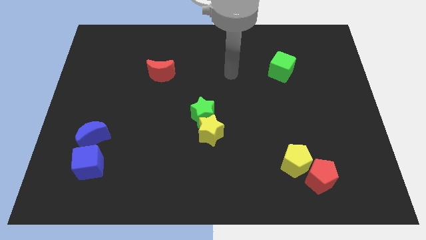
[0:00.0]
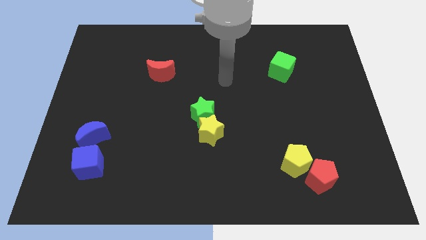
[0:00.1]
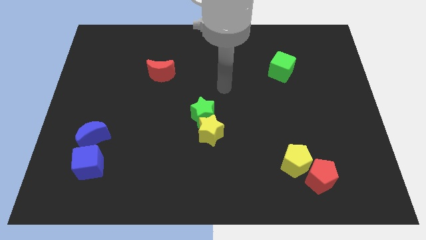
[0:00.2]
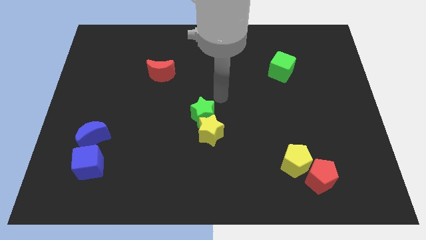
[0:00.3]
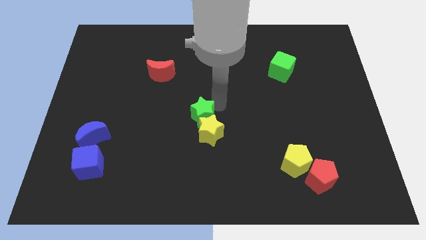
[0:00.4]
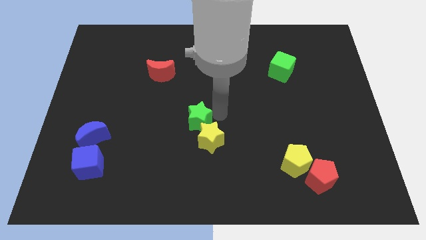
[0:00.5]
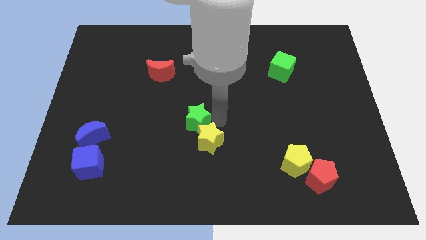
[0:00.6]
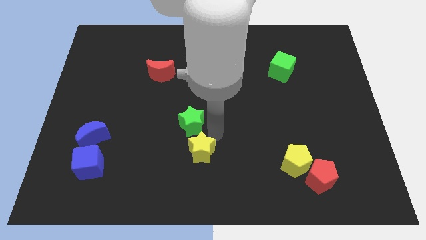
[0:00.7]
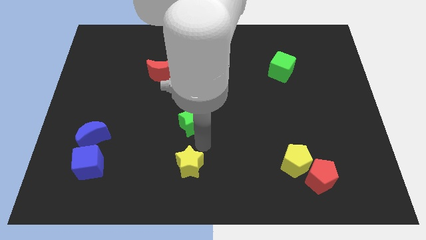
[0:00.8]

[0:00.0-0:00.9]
separate the green star from the yellow star

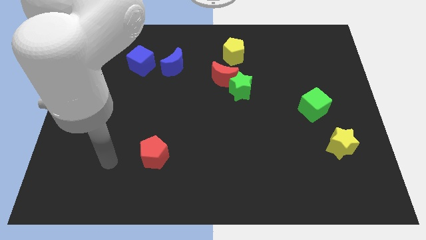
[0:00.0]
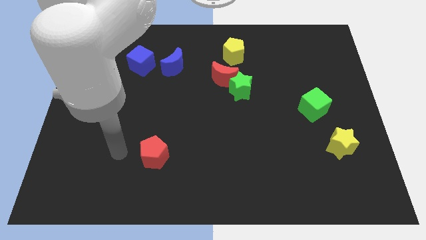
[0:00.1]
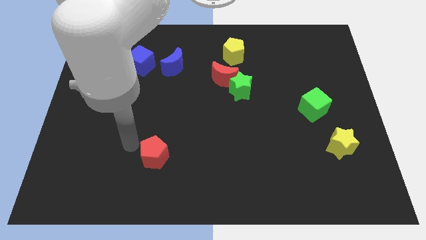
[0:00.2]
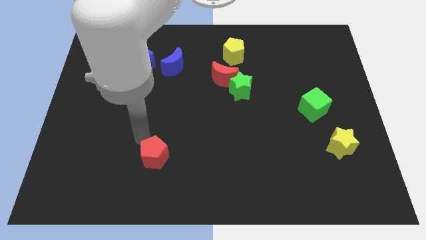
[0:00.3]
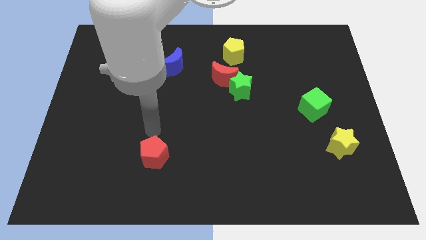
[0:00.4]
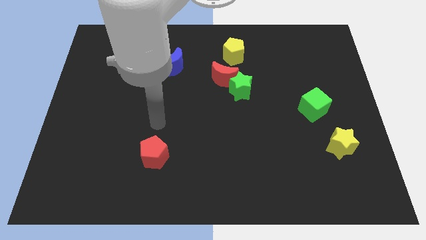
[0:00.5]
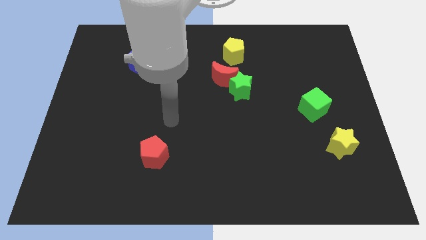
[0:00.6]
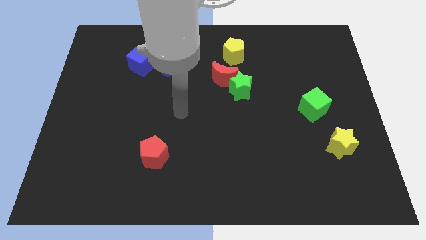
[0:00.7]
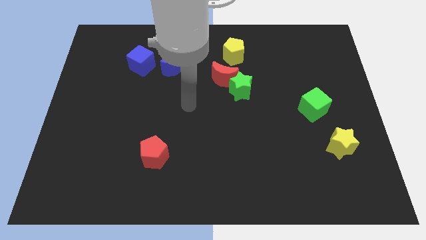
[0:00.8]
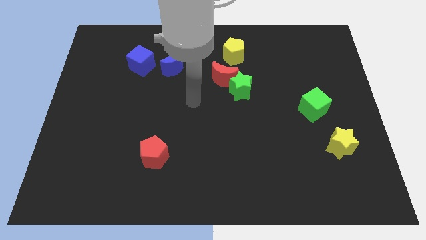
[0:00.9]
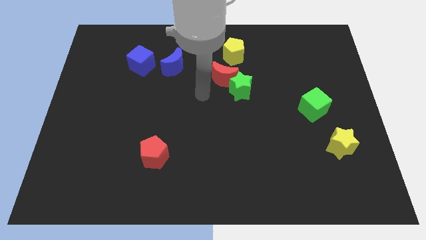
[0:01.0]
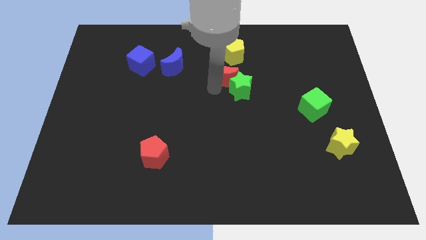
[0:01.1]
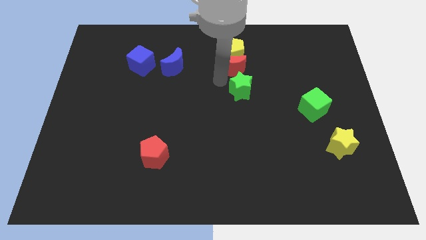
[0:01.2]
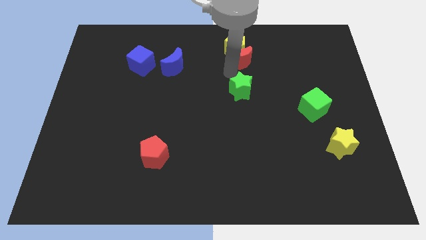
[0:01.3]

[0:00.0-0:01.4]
move the green star away from the red moon

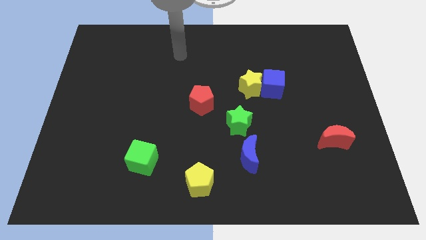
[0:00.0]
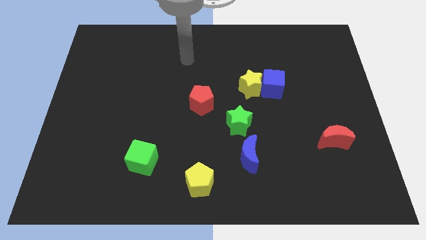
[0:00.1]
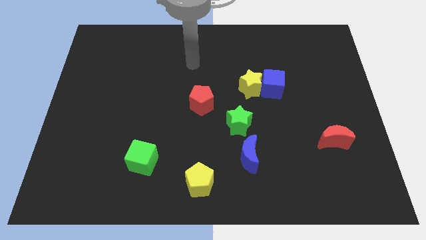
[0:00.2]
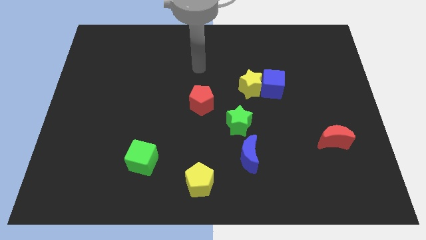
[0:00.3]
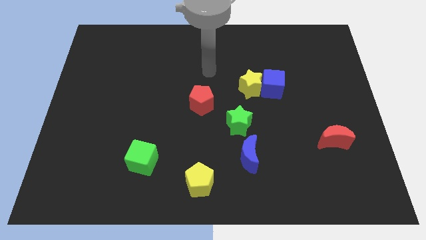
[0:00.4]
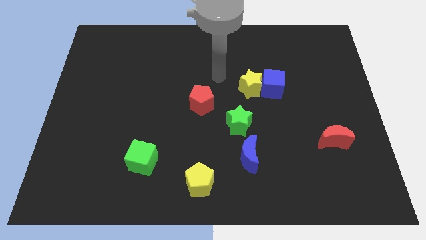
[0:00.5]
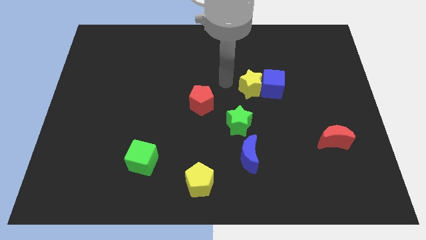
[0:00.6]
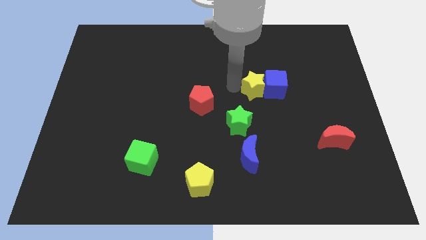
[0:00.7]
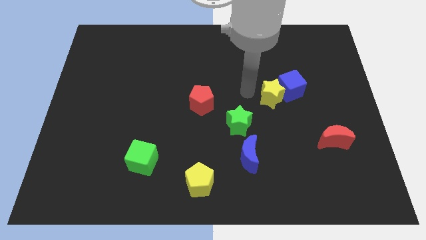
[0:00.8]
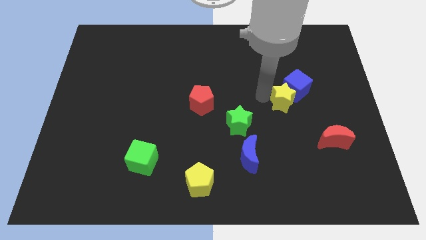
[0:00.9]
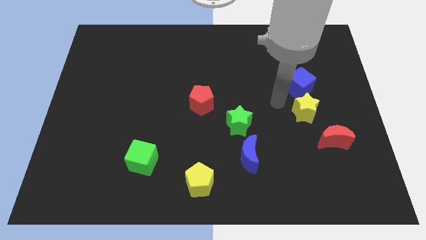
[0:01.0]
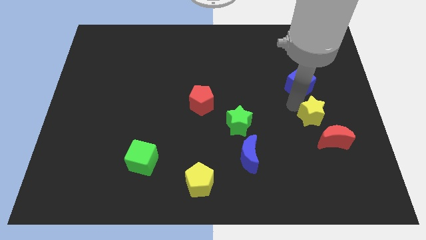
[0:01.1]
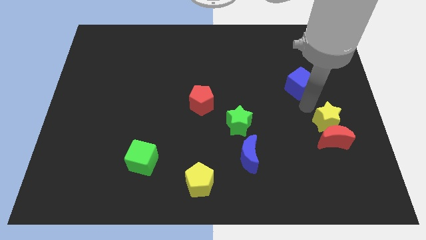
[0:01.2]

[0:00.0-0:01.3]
pull the blue cube apart from the yellow star

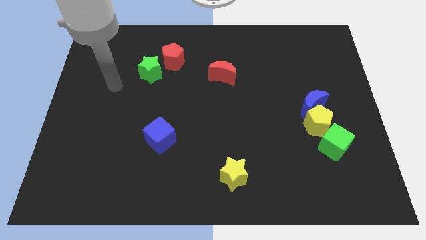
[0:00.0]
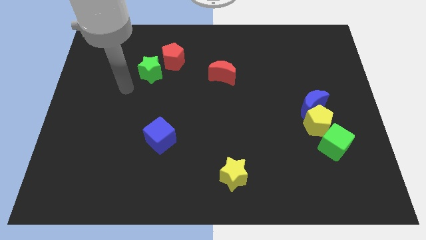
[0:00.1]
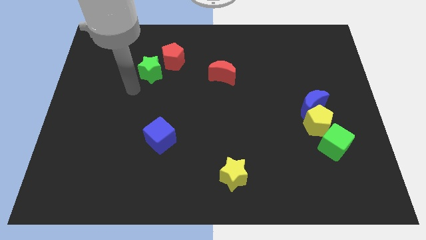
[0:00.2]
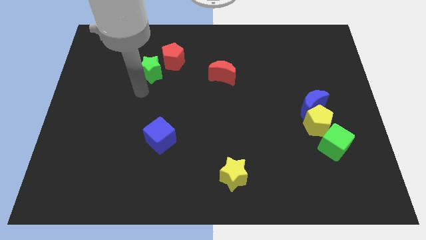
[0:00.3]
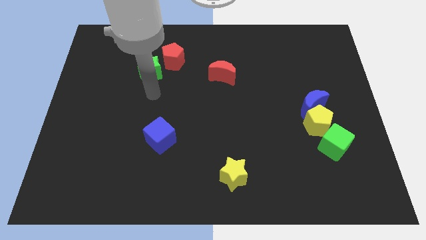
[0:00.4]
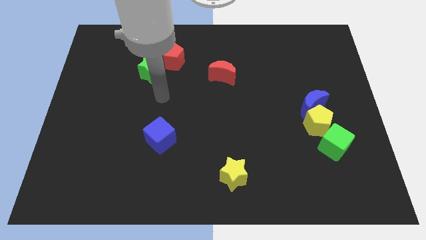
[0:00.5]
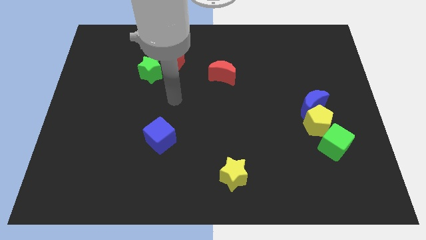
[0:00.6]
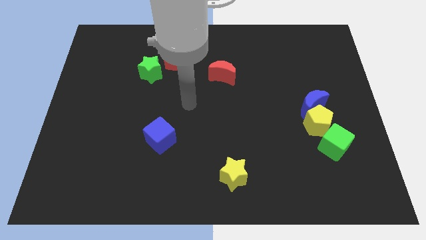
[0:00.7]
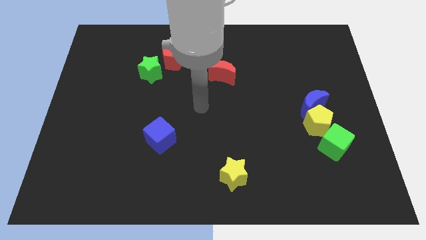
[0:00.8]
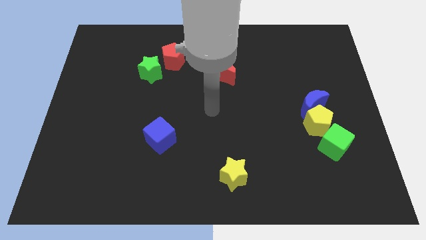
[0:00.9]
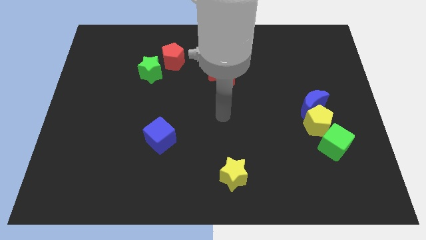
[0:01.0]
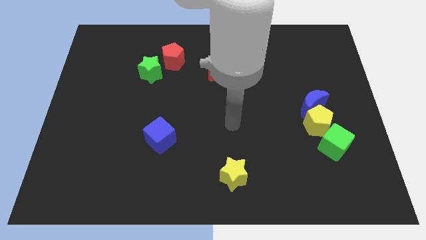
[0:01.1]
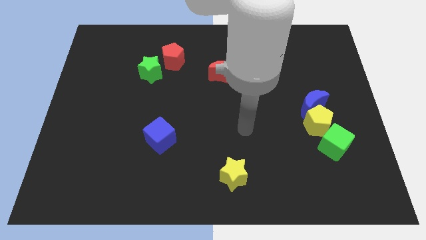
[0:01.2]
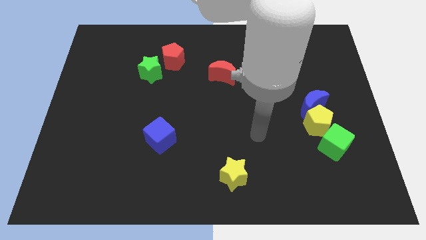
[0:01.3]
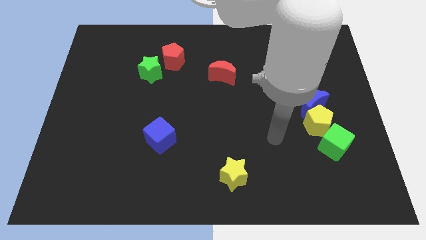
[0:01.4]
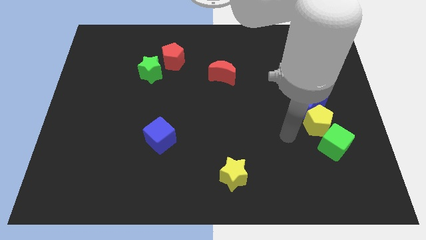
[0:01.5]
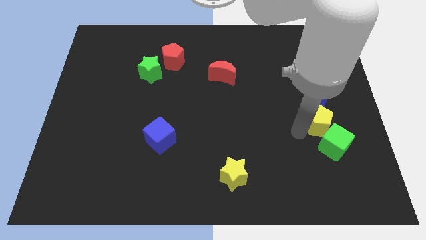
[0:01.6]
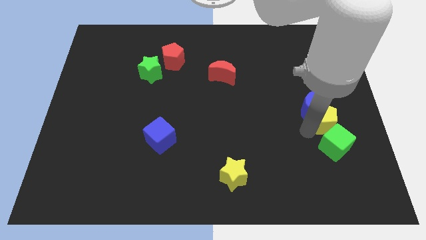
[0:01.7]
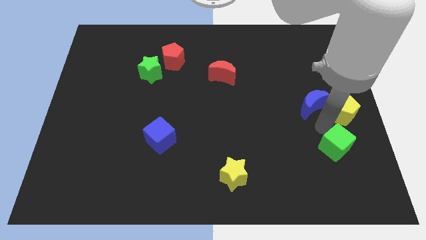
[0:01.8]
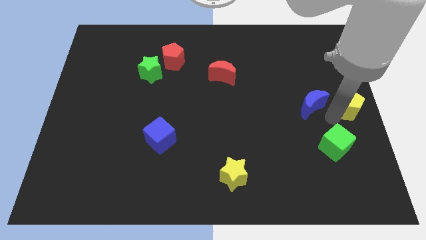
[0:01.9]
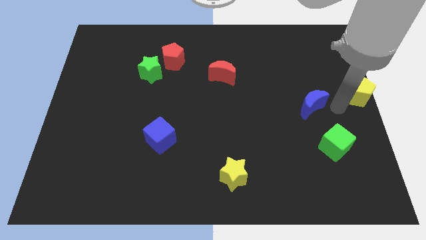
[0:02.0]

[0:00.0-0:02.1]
move the blue moon away from the yellow pentagon

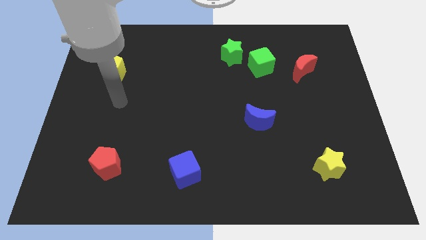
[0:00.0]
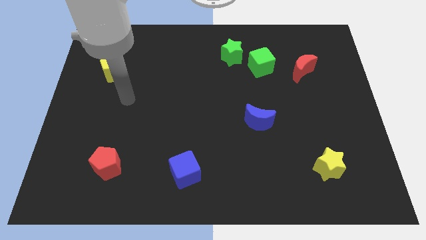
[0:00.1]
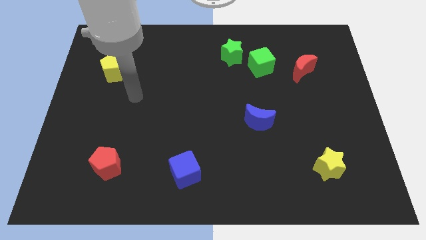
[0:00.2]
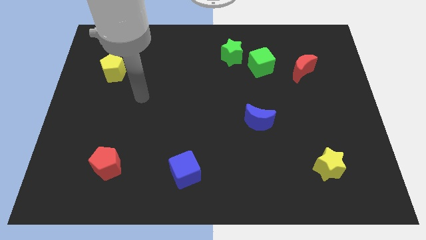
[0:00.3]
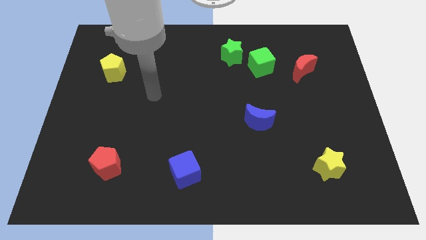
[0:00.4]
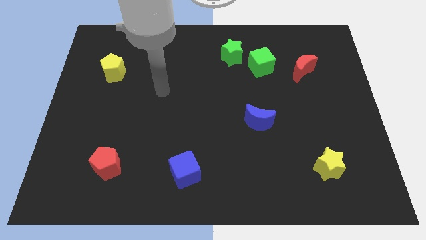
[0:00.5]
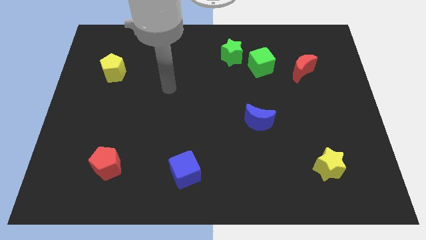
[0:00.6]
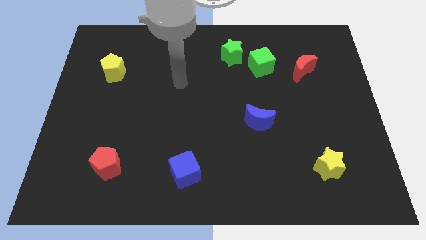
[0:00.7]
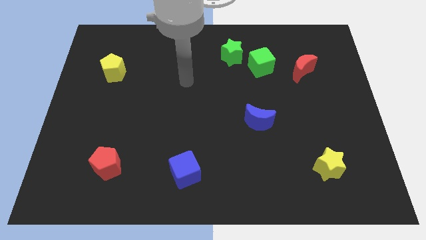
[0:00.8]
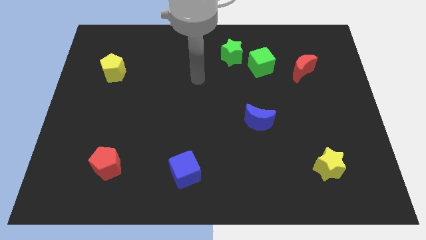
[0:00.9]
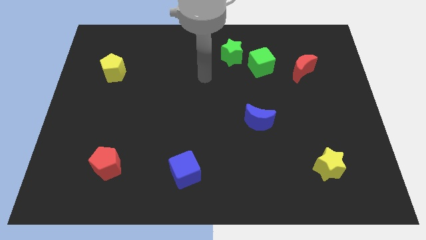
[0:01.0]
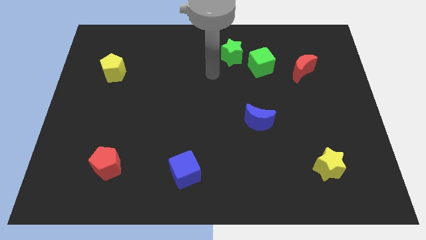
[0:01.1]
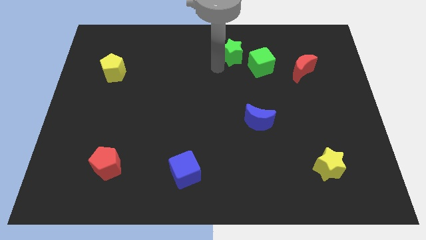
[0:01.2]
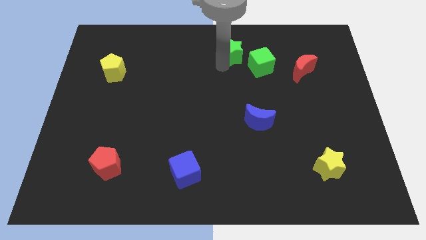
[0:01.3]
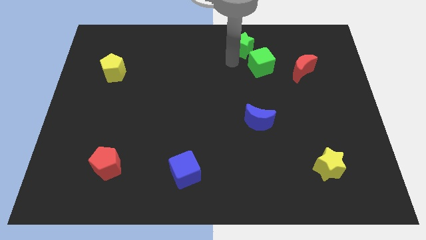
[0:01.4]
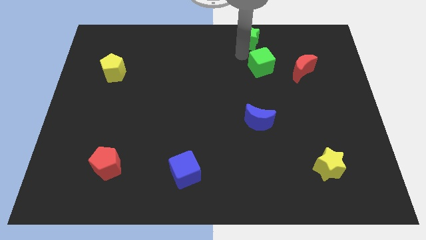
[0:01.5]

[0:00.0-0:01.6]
separate the green cube from the green star

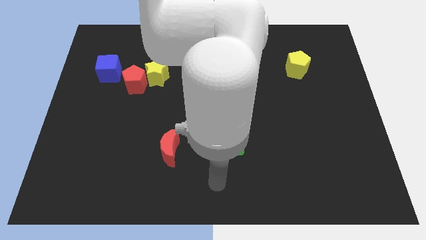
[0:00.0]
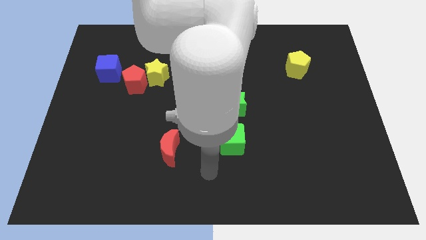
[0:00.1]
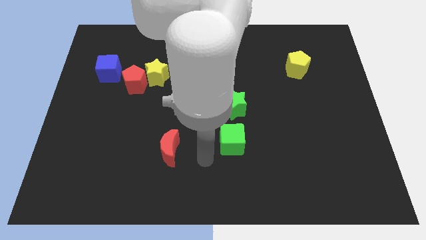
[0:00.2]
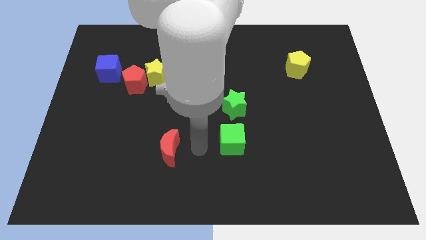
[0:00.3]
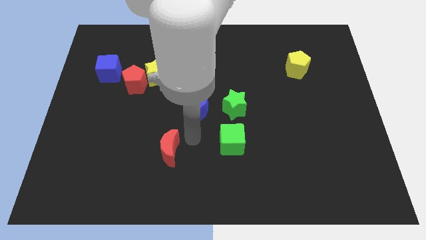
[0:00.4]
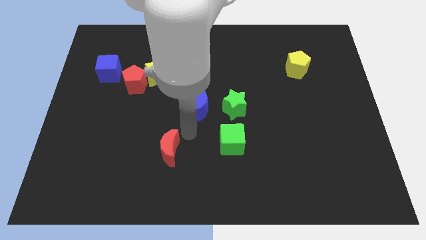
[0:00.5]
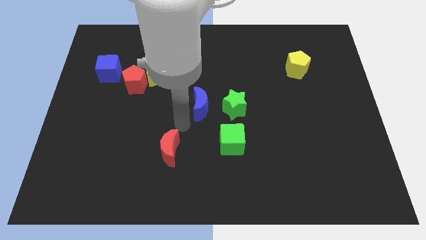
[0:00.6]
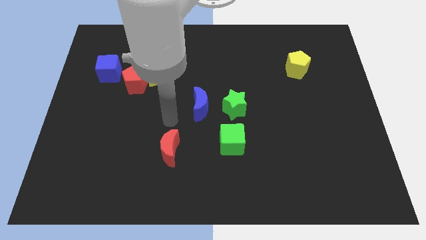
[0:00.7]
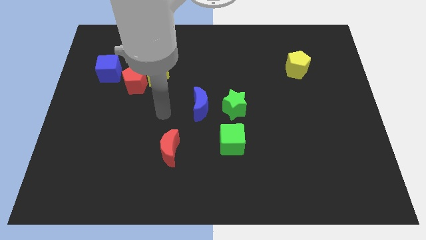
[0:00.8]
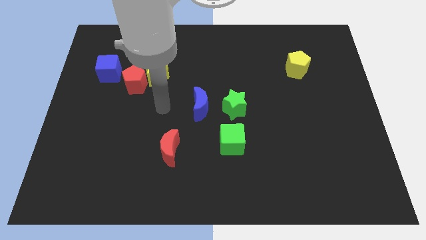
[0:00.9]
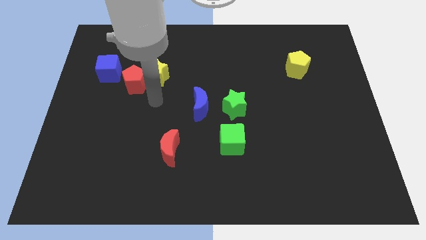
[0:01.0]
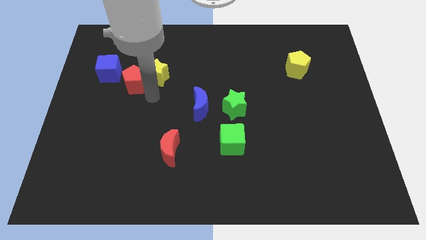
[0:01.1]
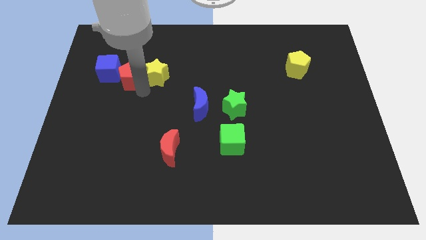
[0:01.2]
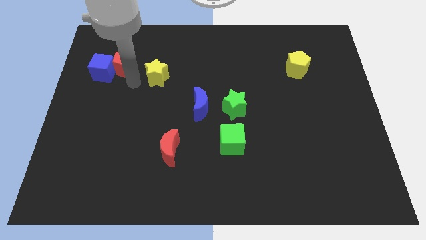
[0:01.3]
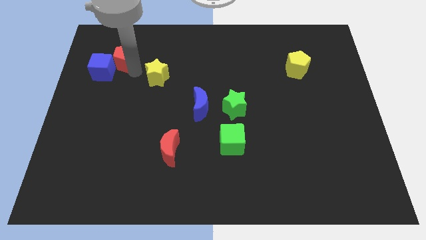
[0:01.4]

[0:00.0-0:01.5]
pull the yellow star apart from the red pentagon

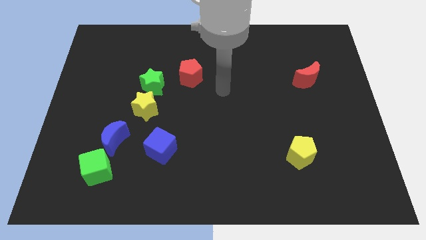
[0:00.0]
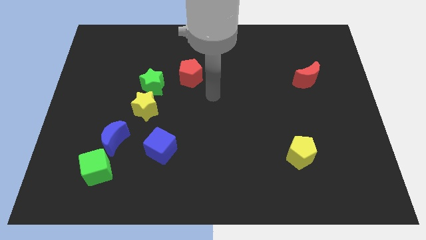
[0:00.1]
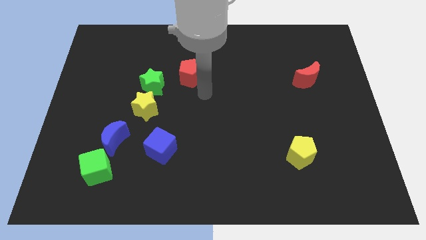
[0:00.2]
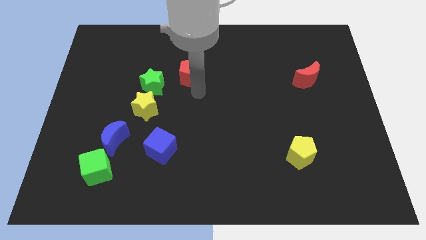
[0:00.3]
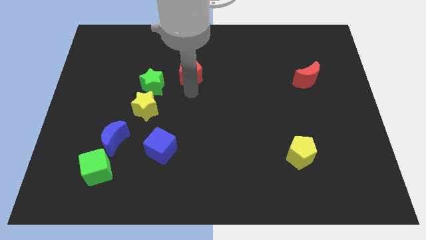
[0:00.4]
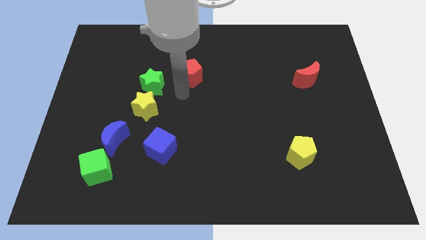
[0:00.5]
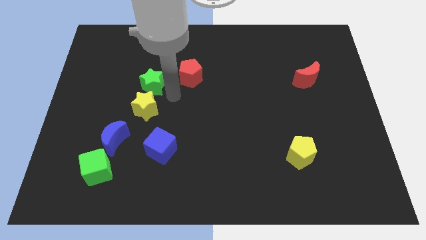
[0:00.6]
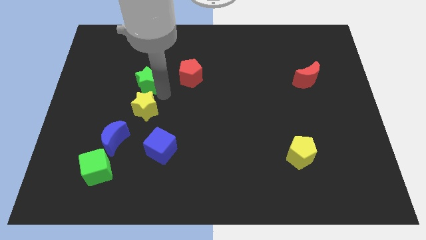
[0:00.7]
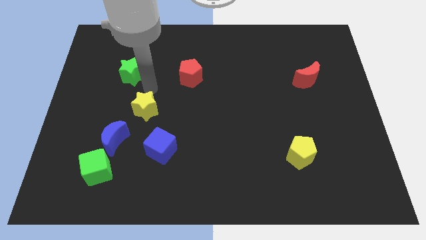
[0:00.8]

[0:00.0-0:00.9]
pull the yellow star apart from the green star
